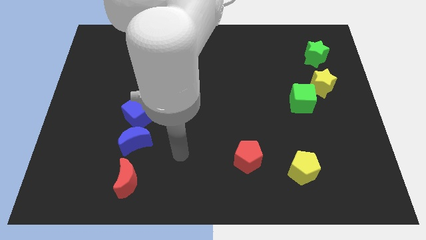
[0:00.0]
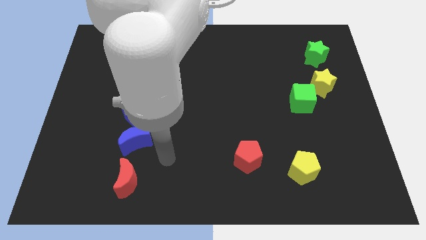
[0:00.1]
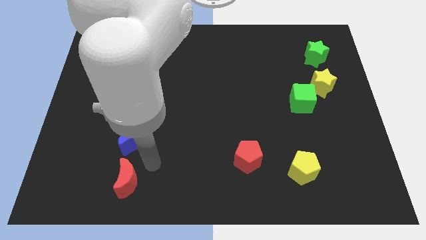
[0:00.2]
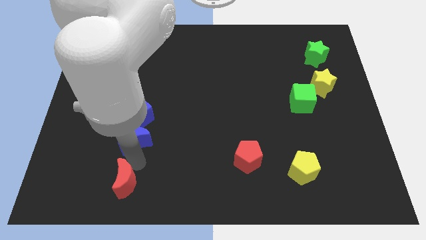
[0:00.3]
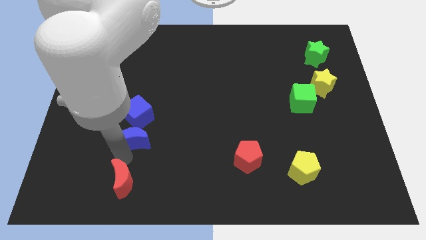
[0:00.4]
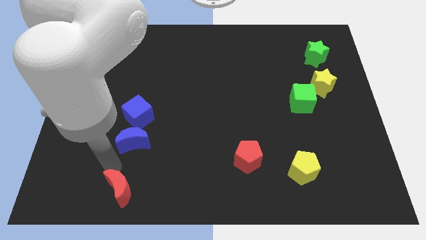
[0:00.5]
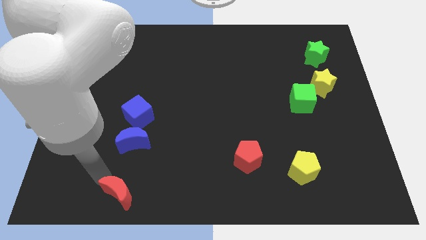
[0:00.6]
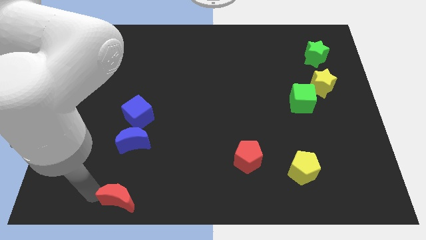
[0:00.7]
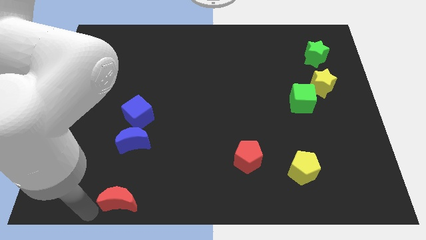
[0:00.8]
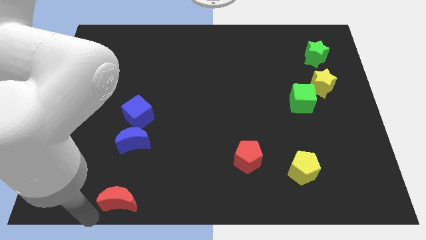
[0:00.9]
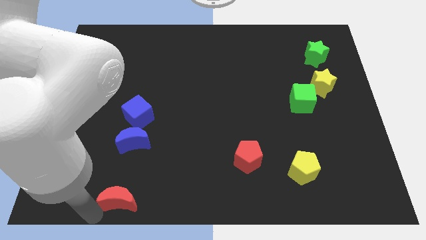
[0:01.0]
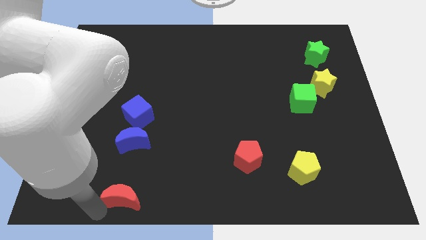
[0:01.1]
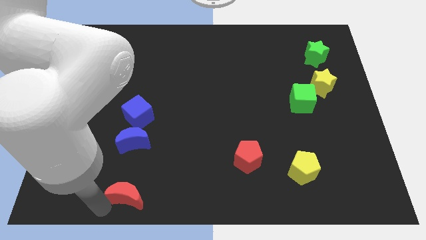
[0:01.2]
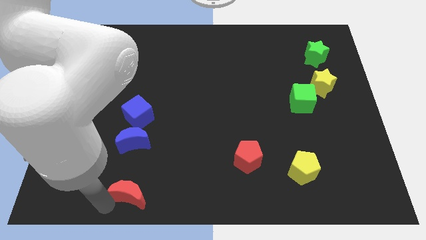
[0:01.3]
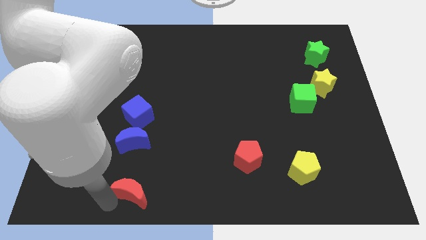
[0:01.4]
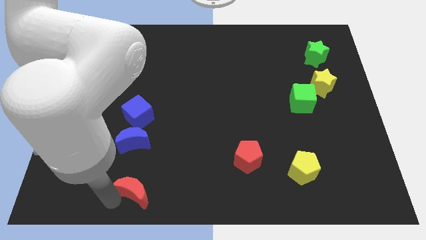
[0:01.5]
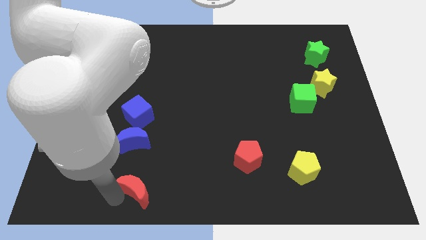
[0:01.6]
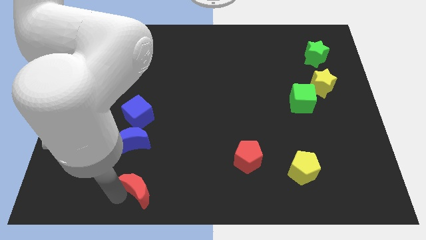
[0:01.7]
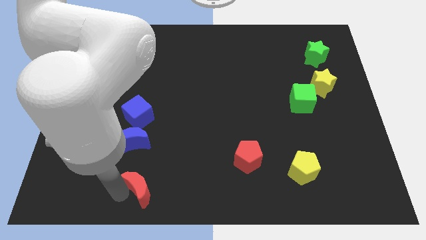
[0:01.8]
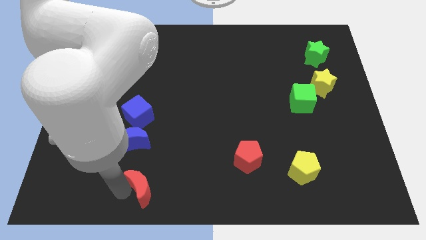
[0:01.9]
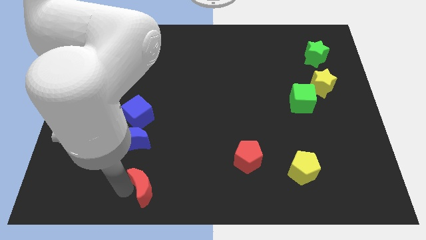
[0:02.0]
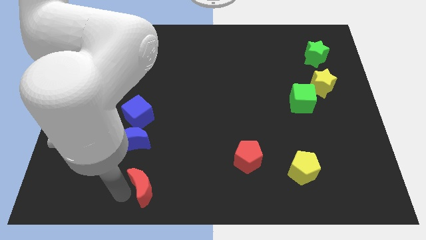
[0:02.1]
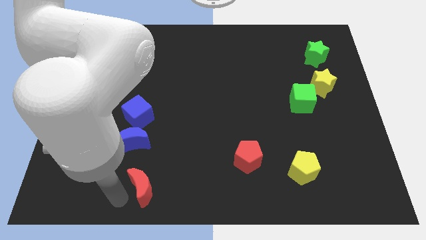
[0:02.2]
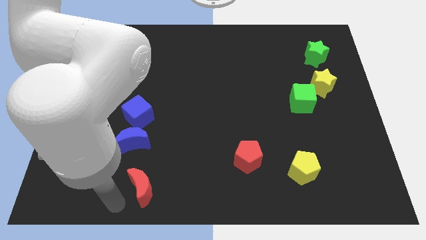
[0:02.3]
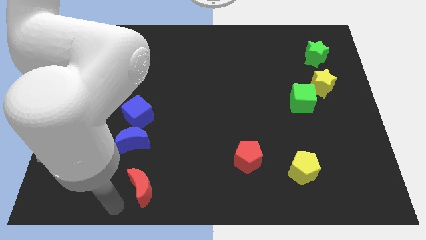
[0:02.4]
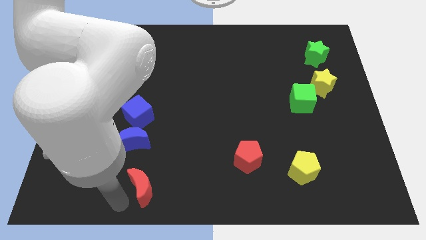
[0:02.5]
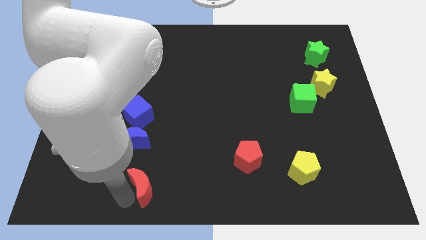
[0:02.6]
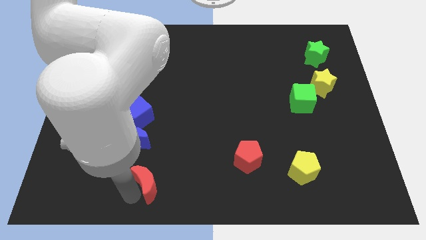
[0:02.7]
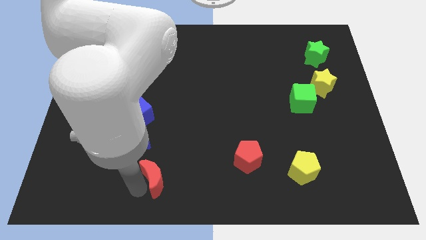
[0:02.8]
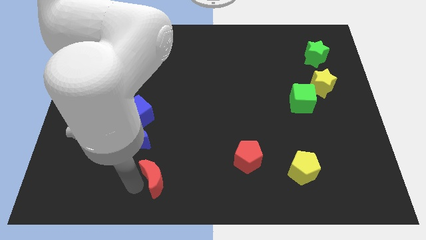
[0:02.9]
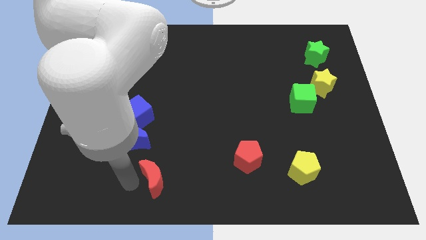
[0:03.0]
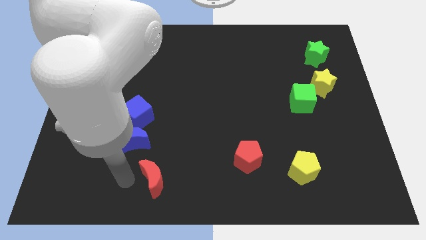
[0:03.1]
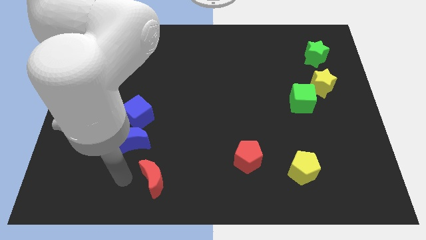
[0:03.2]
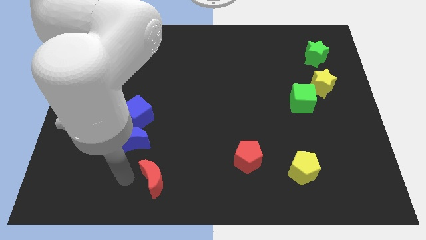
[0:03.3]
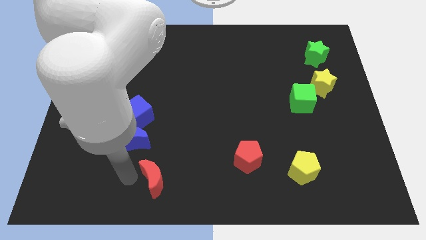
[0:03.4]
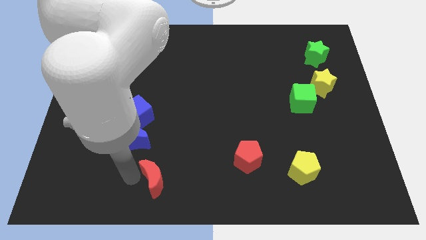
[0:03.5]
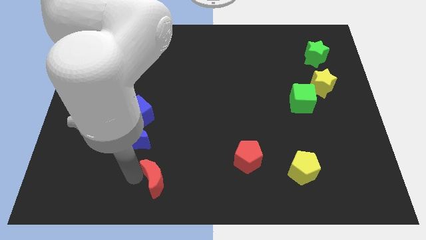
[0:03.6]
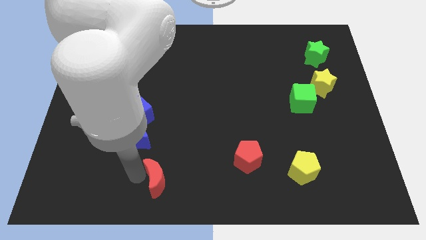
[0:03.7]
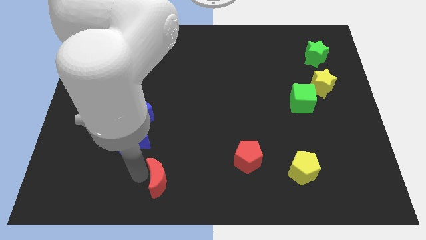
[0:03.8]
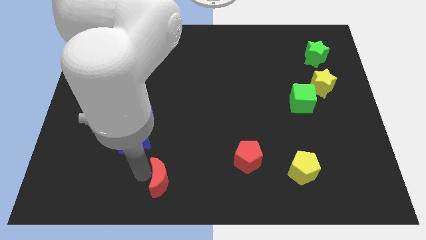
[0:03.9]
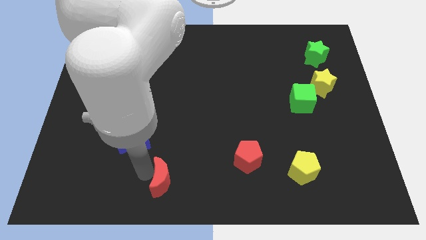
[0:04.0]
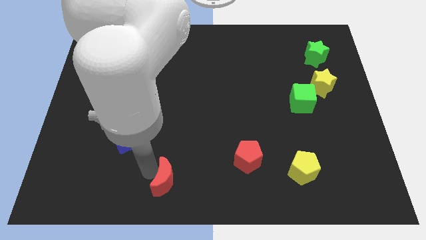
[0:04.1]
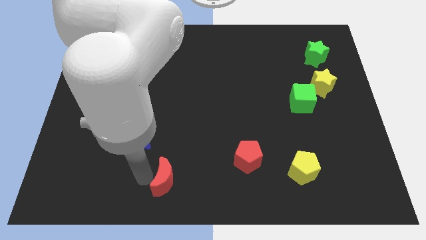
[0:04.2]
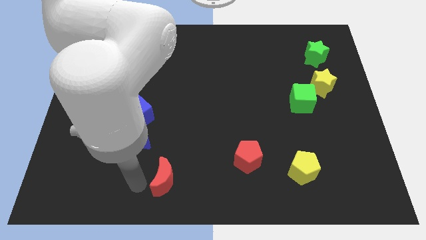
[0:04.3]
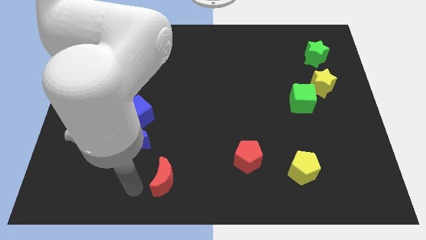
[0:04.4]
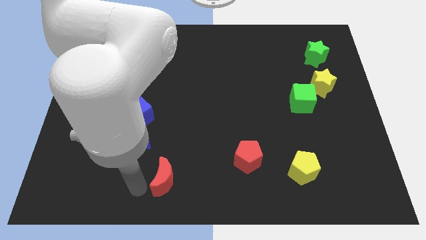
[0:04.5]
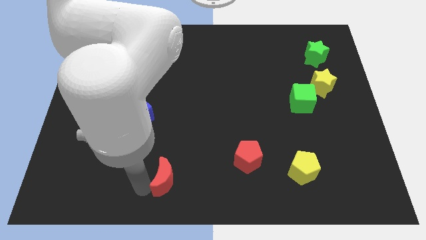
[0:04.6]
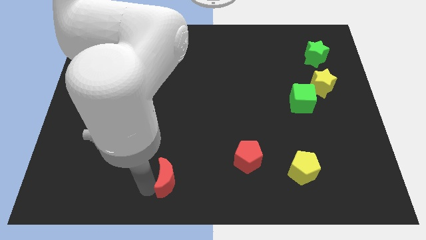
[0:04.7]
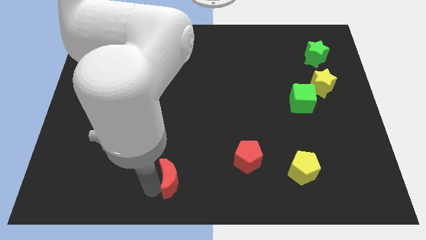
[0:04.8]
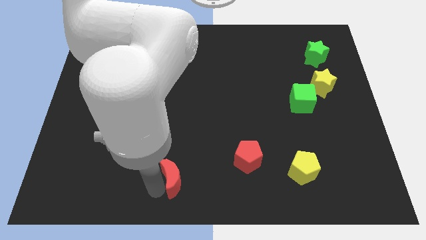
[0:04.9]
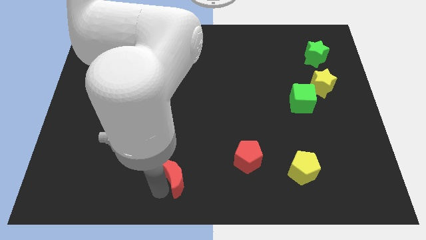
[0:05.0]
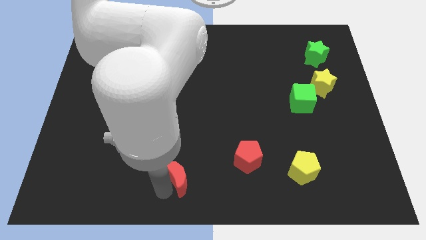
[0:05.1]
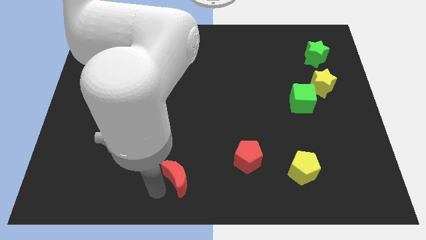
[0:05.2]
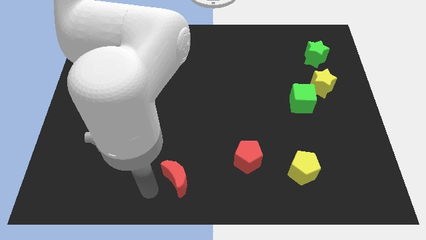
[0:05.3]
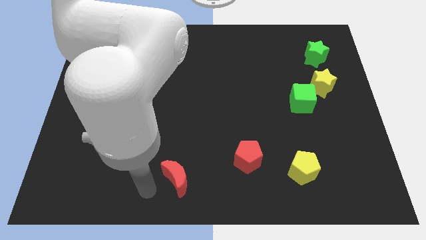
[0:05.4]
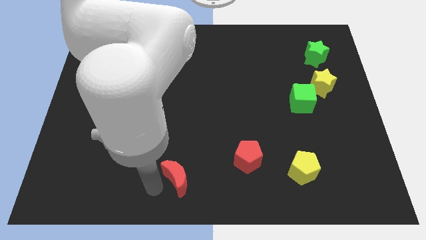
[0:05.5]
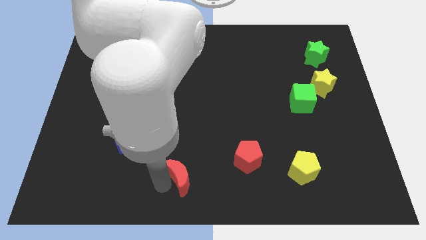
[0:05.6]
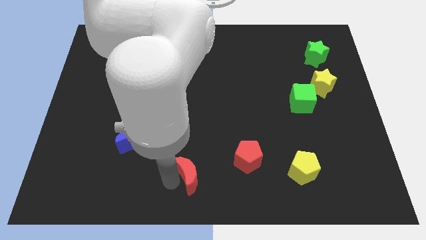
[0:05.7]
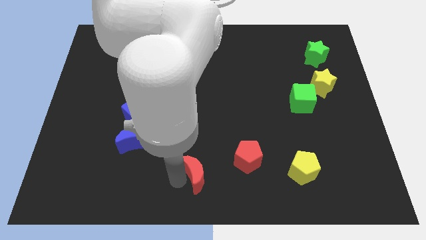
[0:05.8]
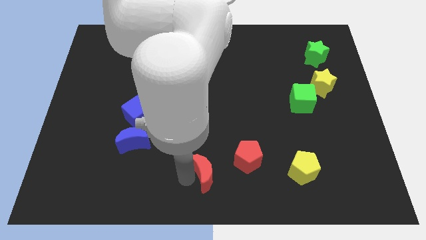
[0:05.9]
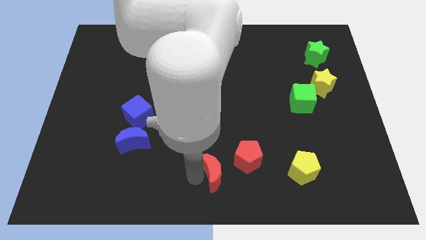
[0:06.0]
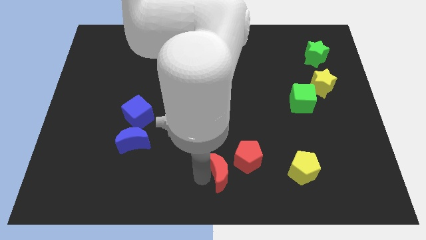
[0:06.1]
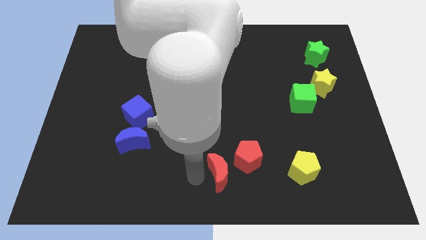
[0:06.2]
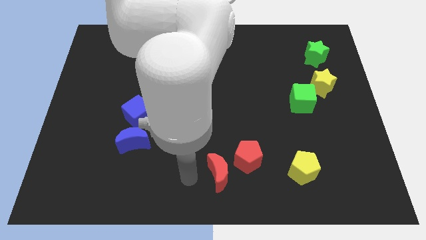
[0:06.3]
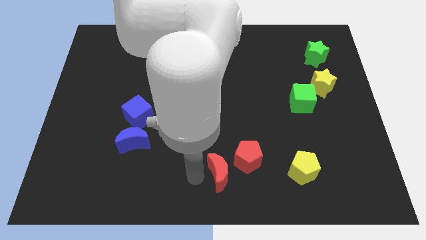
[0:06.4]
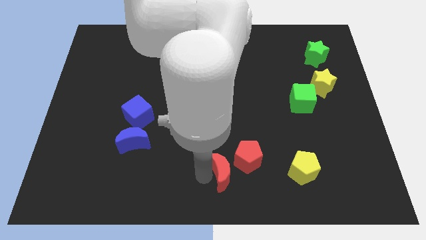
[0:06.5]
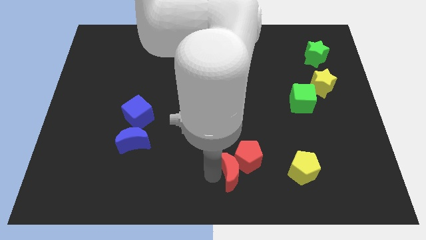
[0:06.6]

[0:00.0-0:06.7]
slide the red moon to the left side of the yellow pentagon

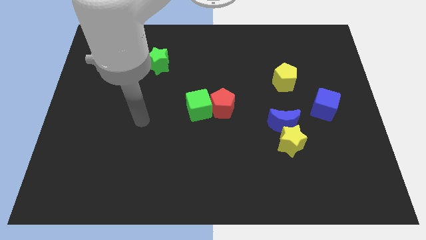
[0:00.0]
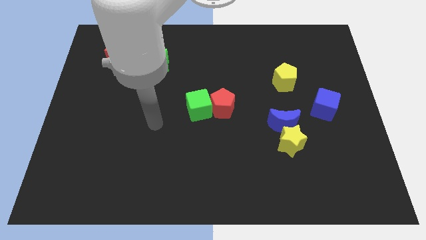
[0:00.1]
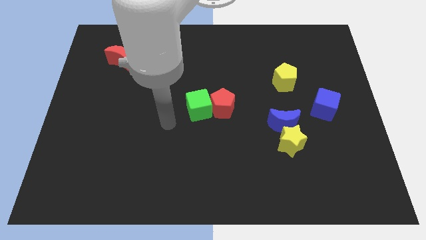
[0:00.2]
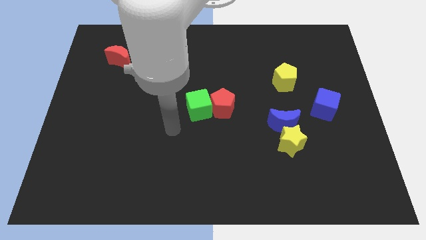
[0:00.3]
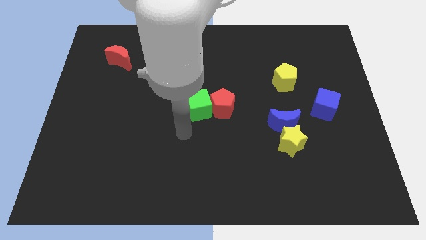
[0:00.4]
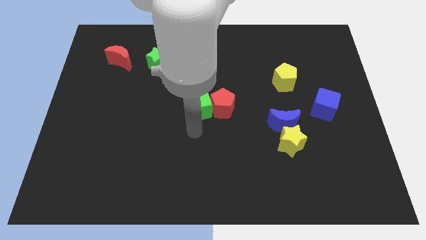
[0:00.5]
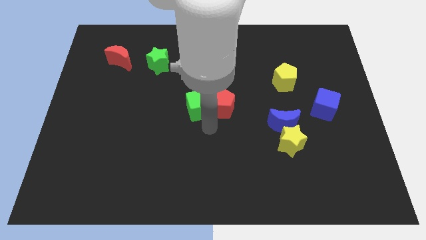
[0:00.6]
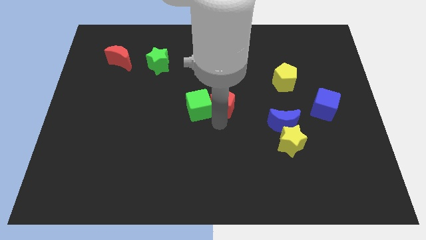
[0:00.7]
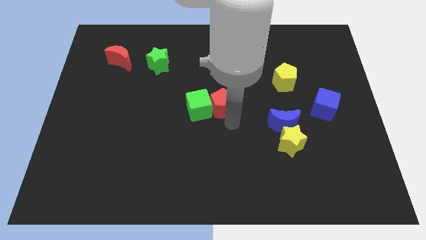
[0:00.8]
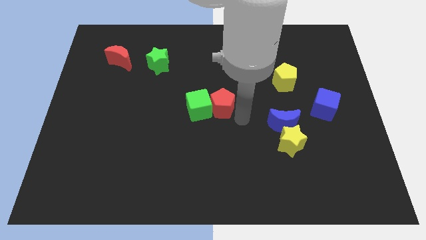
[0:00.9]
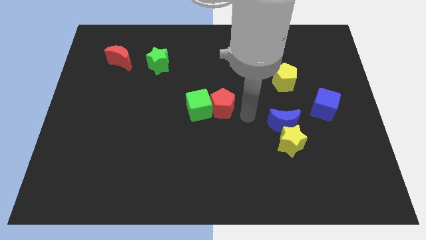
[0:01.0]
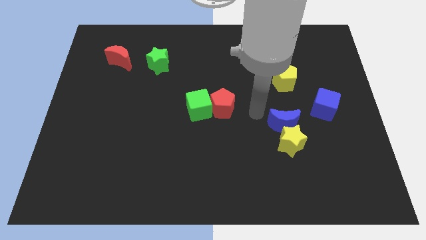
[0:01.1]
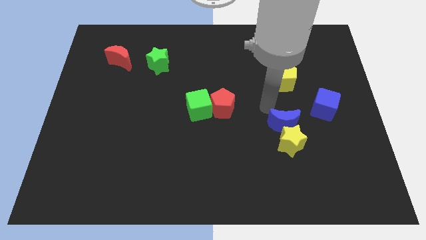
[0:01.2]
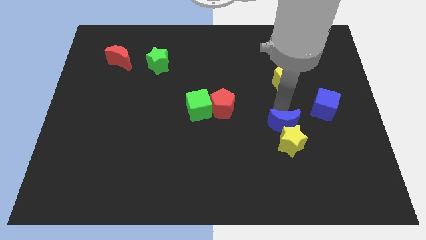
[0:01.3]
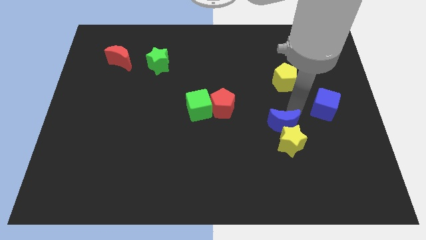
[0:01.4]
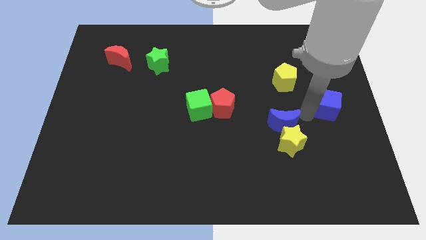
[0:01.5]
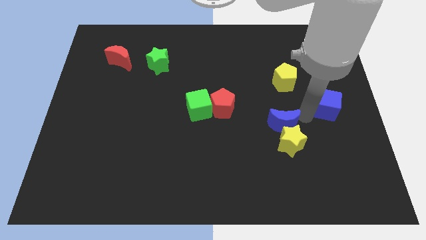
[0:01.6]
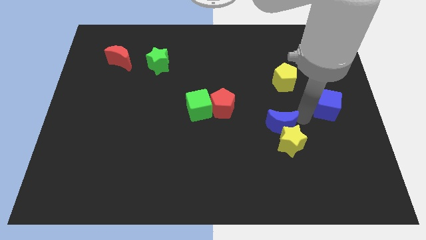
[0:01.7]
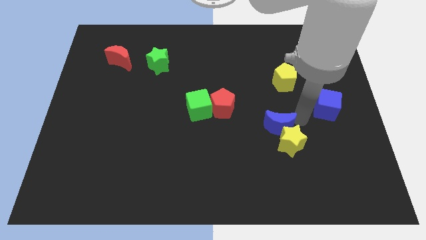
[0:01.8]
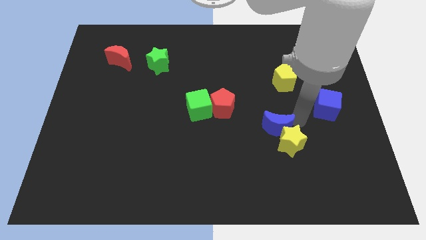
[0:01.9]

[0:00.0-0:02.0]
push the blue moon to the left of the yellow star
